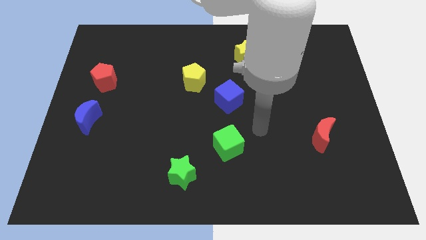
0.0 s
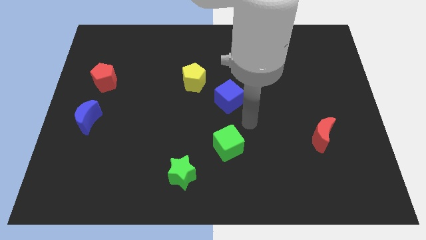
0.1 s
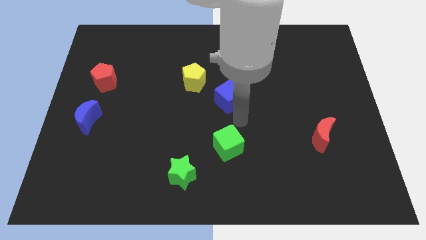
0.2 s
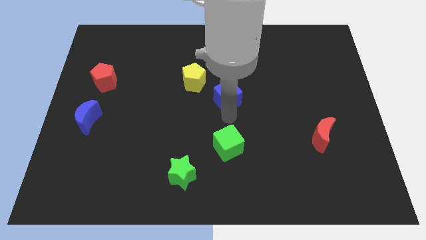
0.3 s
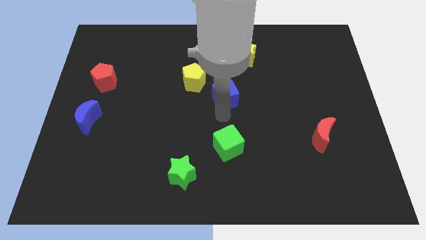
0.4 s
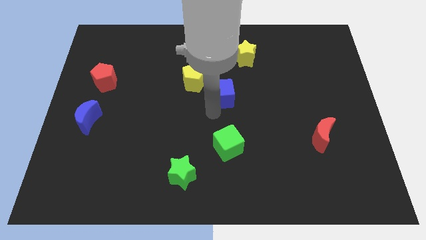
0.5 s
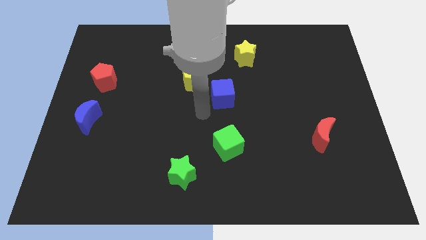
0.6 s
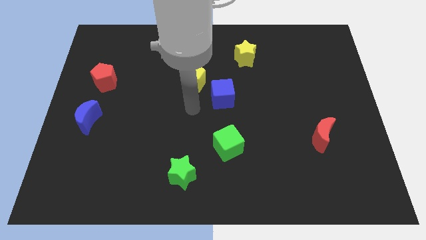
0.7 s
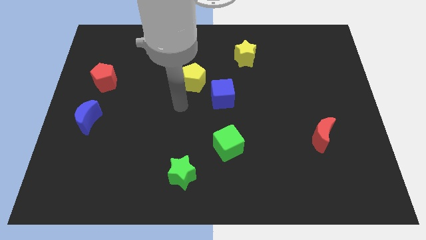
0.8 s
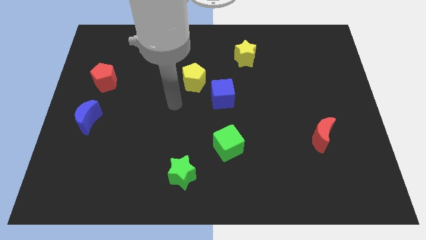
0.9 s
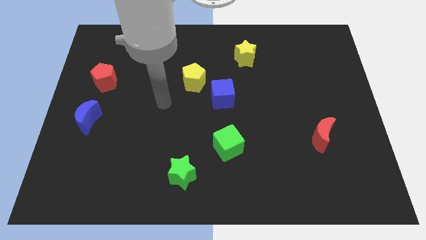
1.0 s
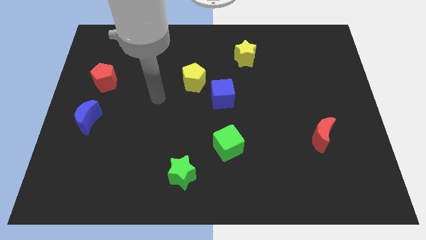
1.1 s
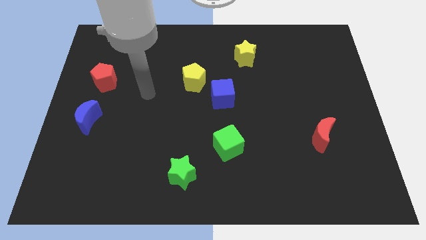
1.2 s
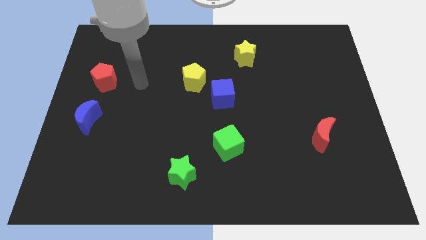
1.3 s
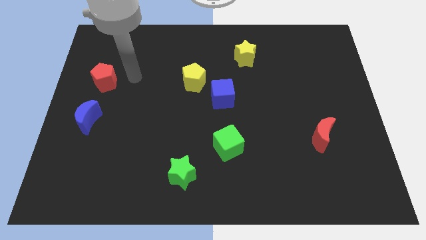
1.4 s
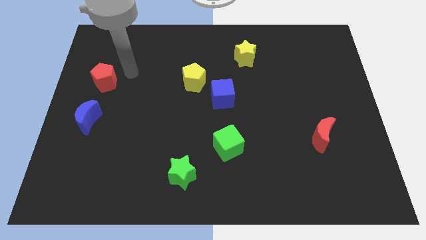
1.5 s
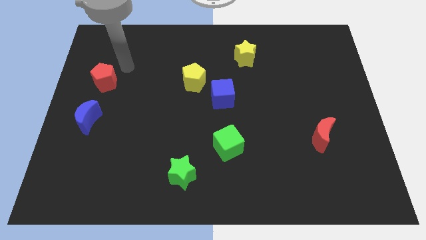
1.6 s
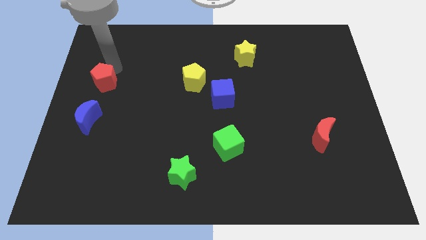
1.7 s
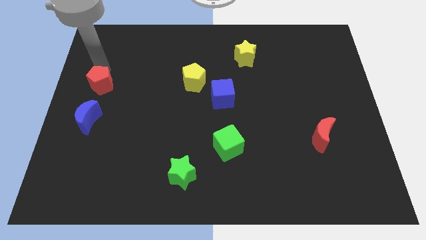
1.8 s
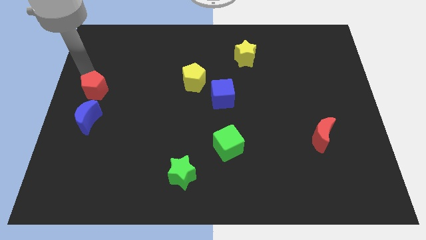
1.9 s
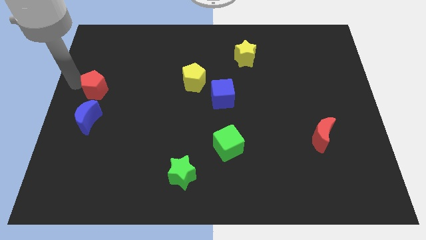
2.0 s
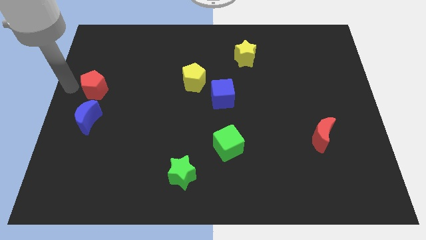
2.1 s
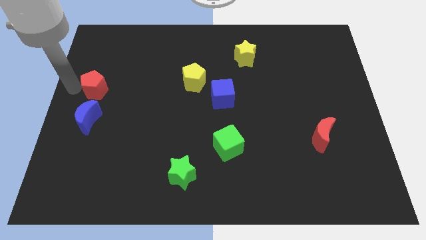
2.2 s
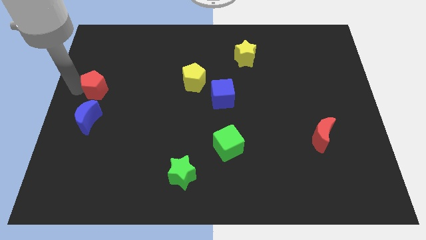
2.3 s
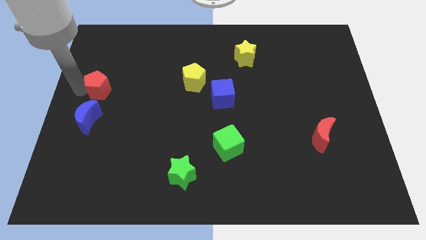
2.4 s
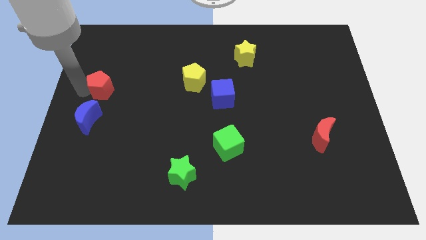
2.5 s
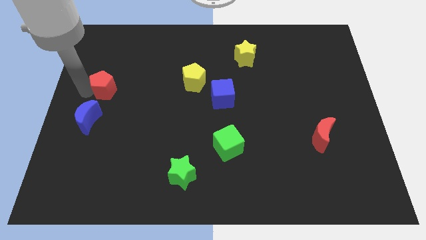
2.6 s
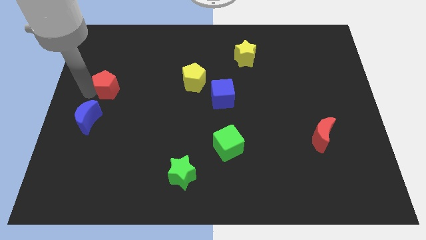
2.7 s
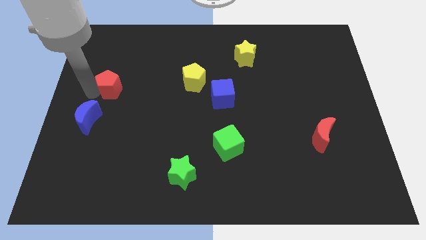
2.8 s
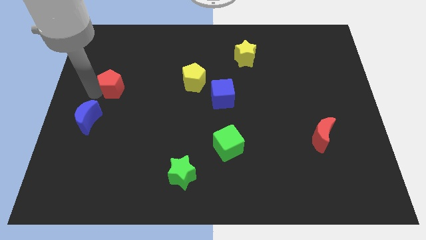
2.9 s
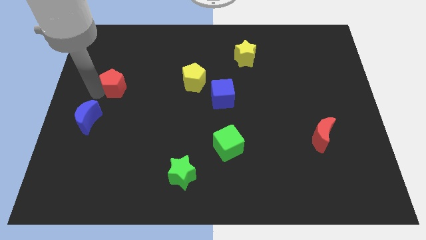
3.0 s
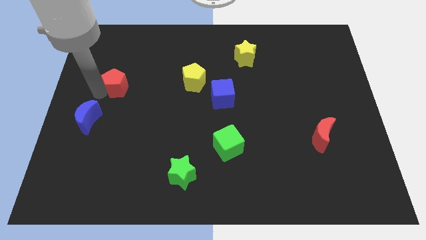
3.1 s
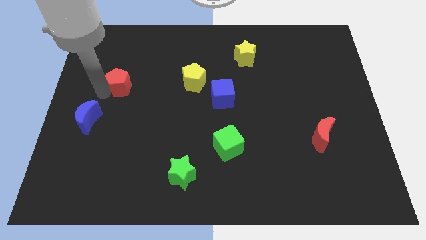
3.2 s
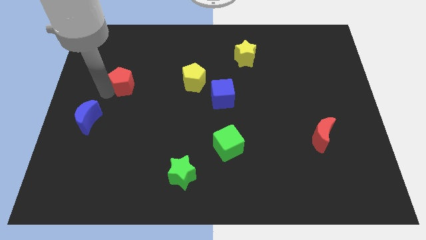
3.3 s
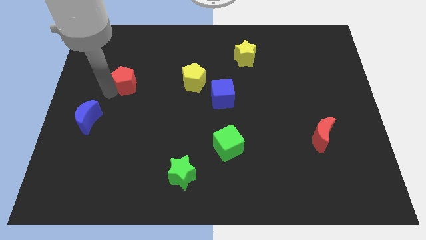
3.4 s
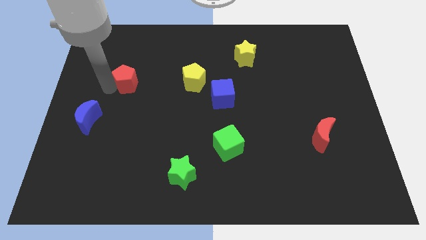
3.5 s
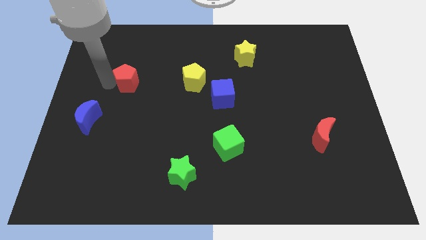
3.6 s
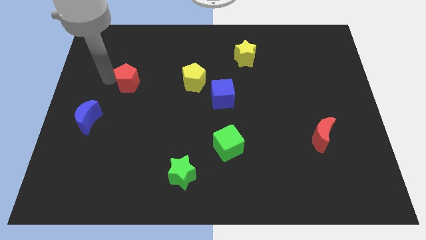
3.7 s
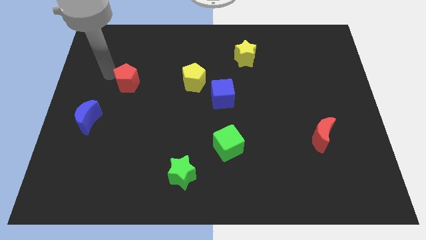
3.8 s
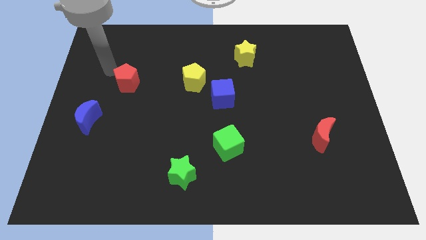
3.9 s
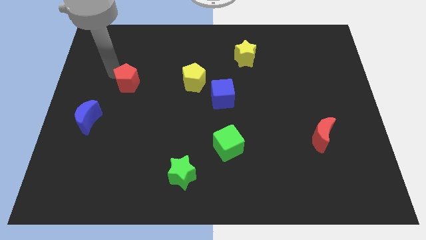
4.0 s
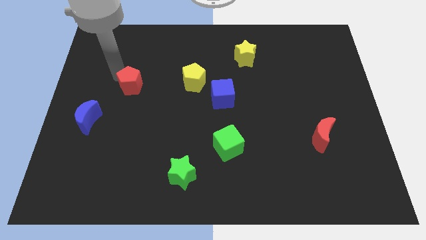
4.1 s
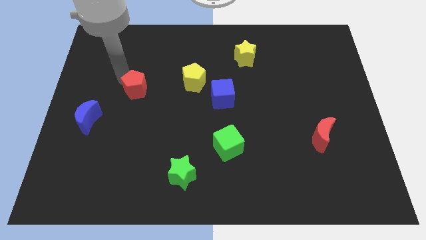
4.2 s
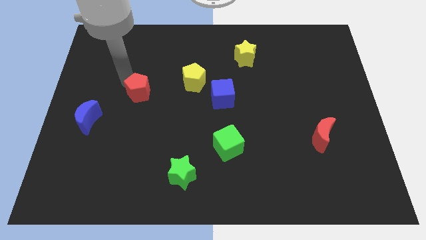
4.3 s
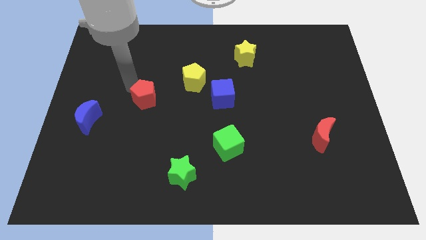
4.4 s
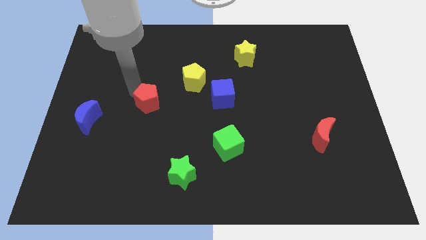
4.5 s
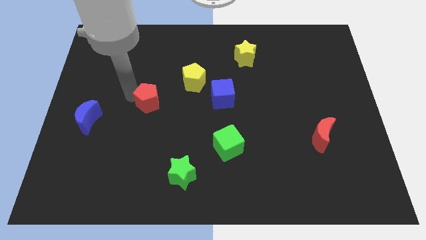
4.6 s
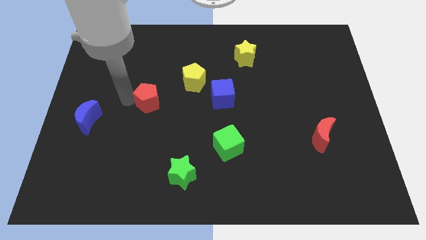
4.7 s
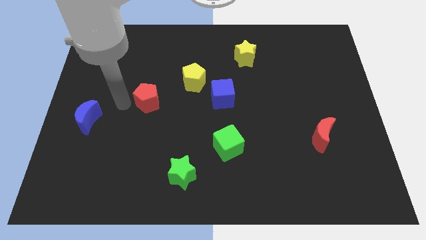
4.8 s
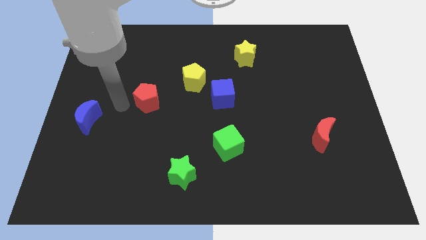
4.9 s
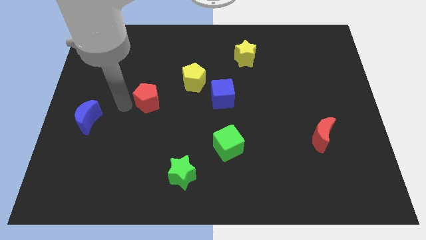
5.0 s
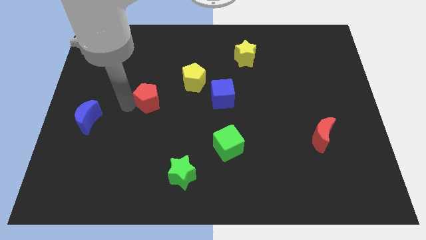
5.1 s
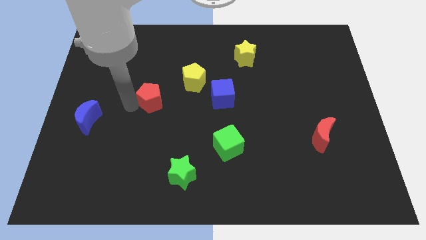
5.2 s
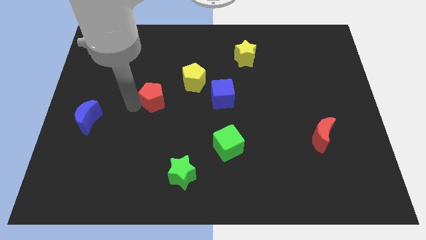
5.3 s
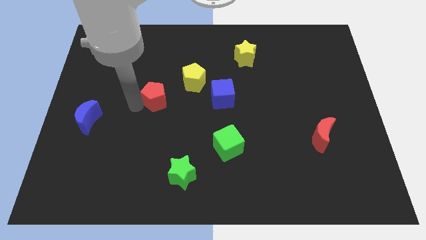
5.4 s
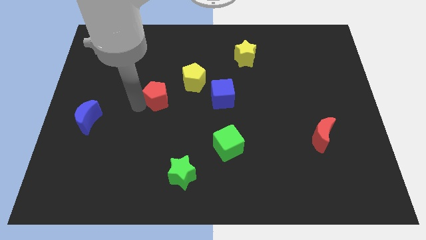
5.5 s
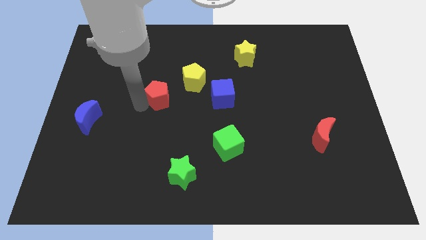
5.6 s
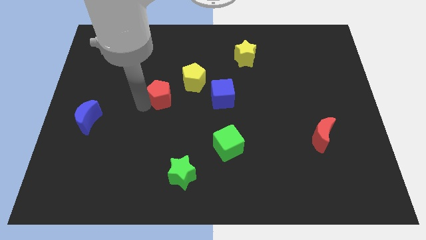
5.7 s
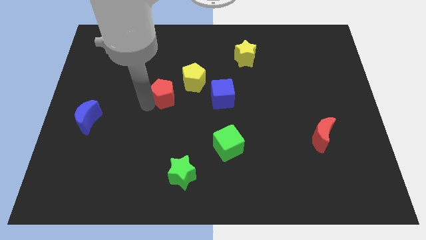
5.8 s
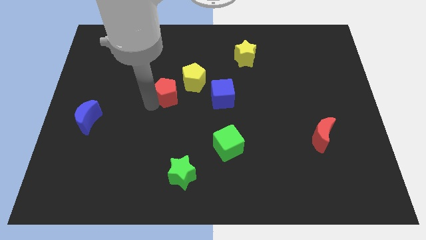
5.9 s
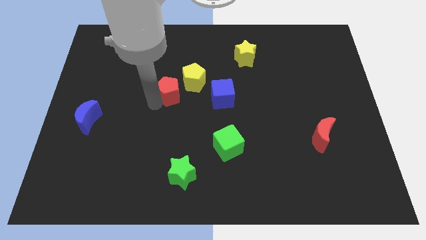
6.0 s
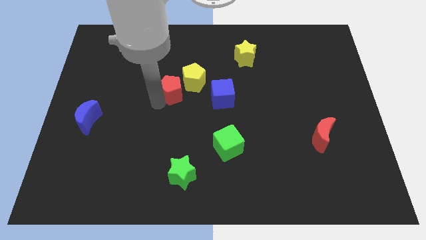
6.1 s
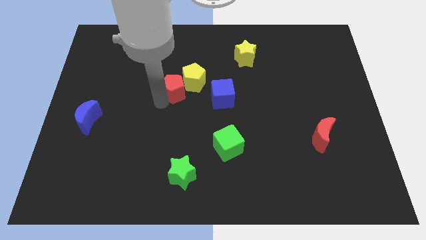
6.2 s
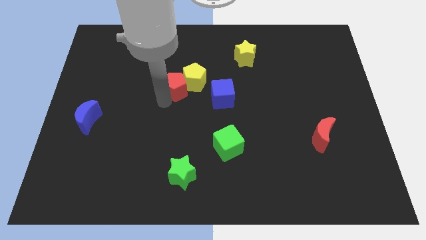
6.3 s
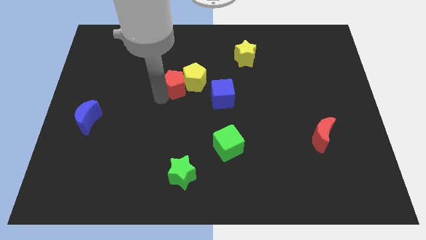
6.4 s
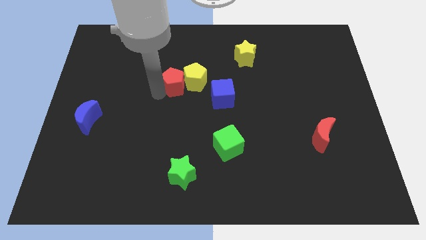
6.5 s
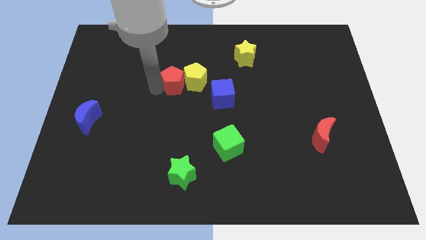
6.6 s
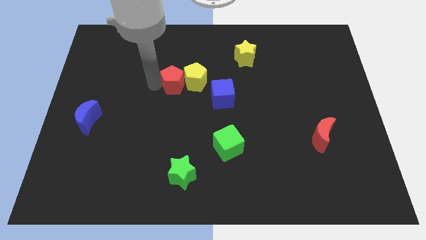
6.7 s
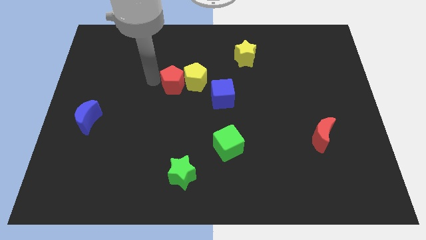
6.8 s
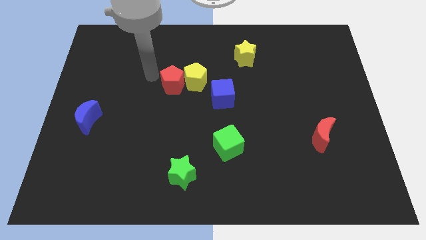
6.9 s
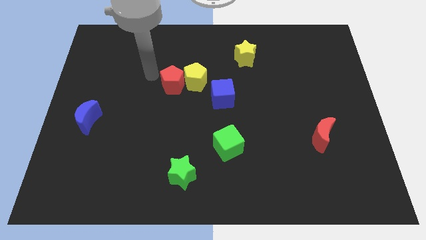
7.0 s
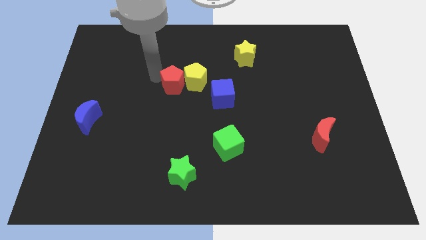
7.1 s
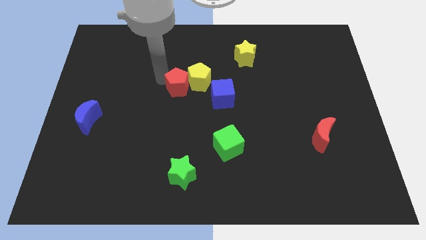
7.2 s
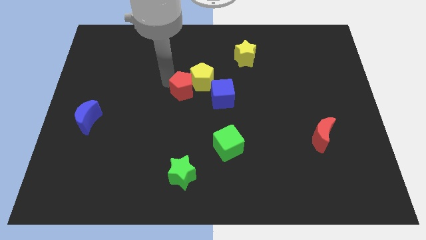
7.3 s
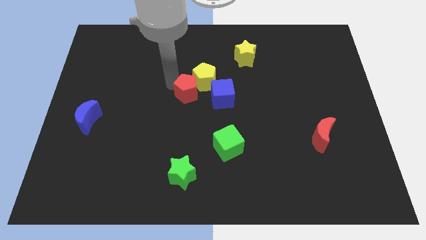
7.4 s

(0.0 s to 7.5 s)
slide the red pentagon right
